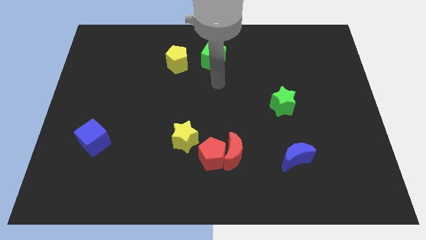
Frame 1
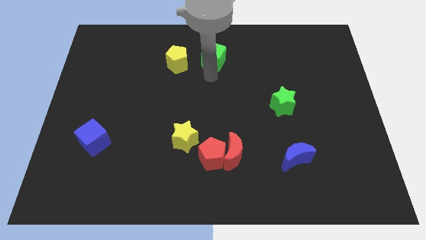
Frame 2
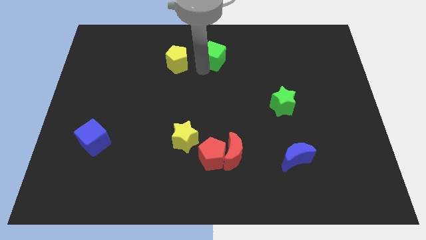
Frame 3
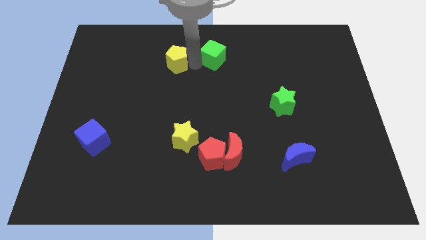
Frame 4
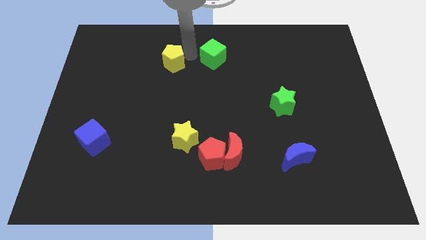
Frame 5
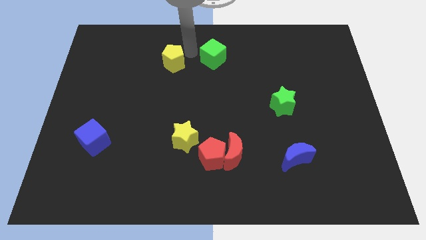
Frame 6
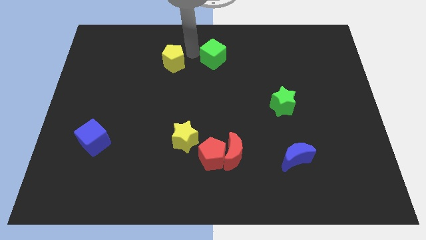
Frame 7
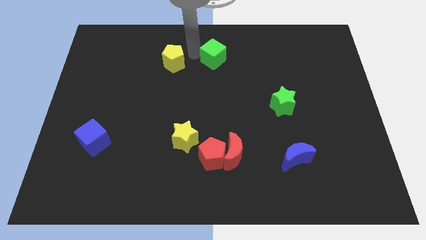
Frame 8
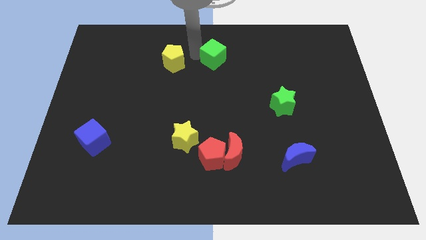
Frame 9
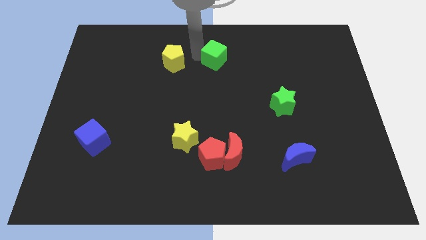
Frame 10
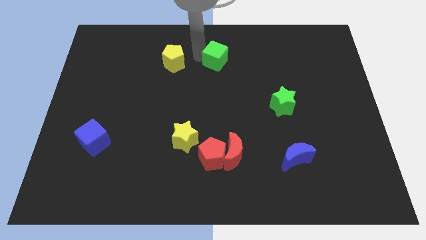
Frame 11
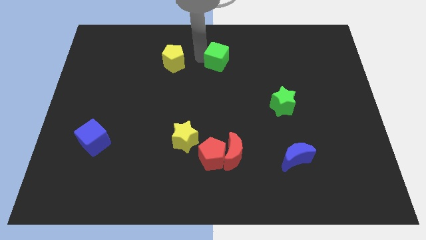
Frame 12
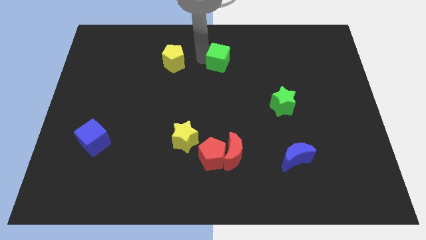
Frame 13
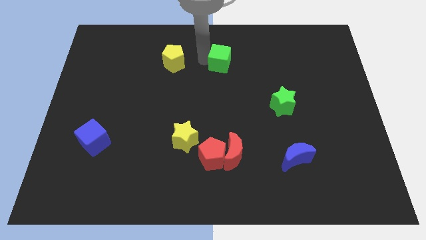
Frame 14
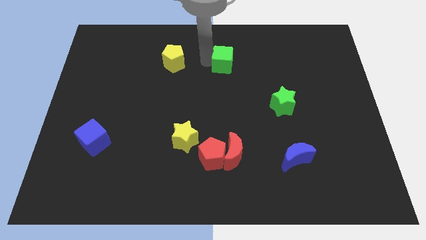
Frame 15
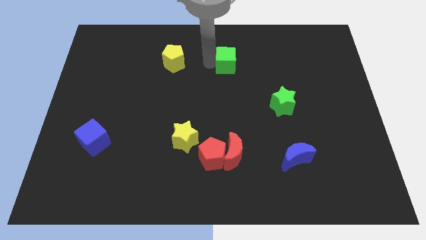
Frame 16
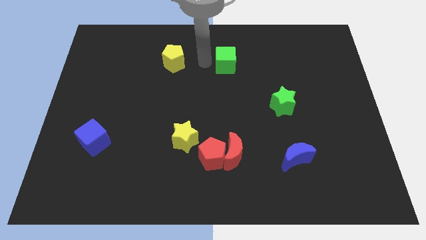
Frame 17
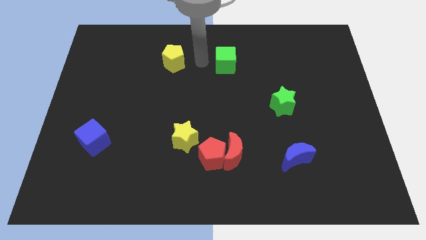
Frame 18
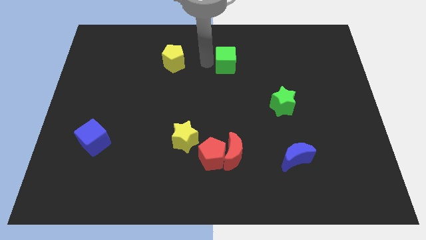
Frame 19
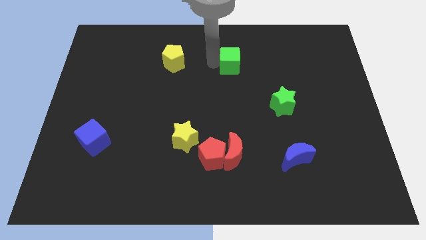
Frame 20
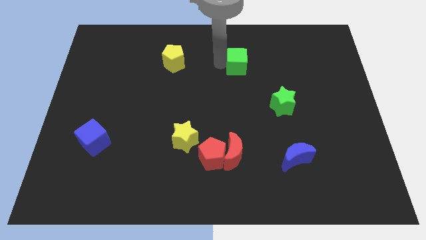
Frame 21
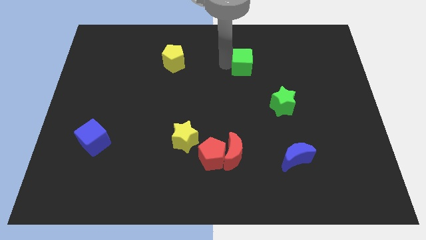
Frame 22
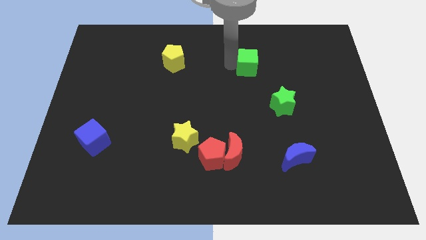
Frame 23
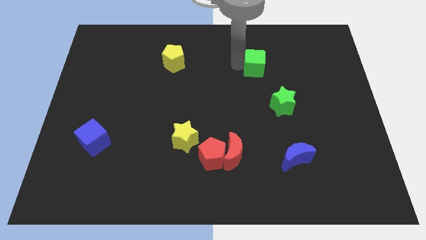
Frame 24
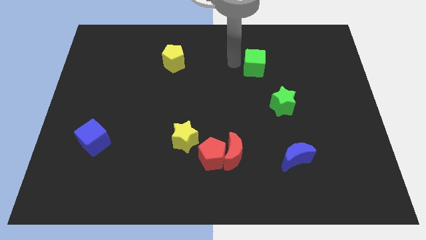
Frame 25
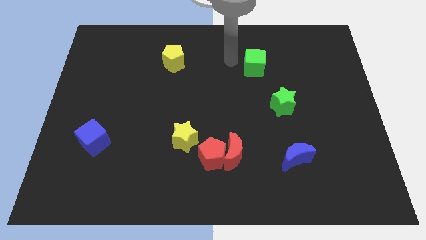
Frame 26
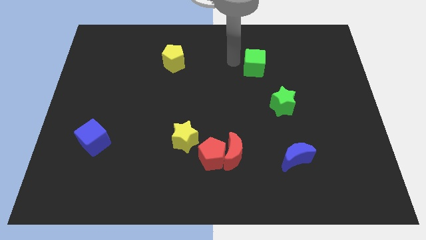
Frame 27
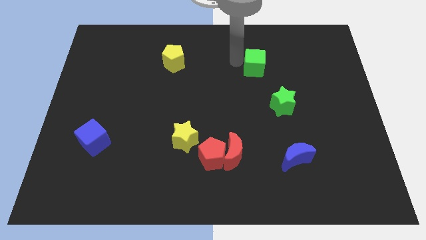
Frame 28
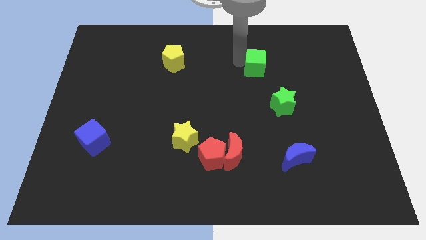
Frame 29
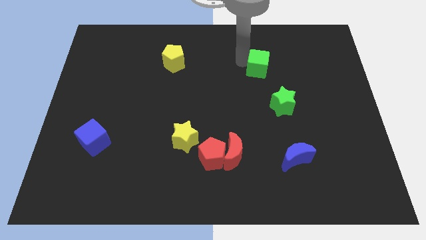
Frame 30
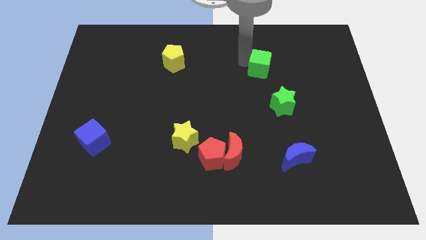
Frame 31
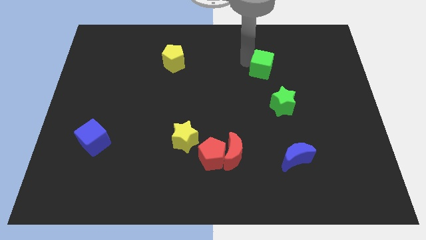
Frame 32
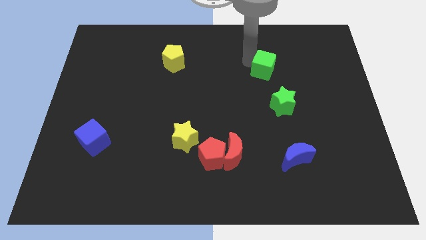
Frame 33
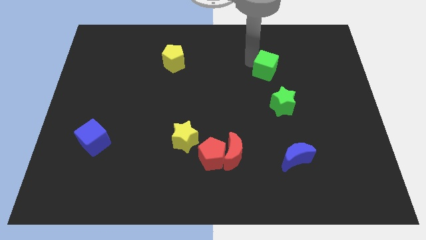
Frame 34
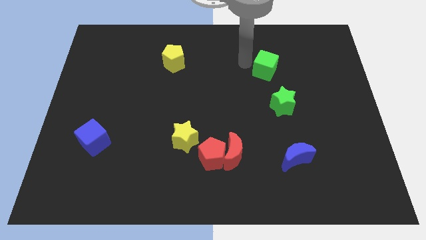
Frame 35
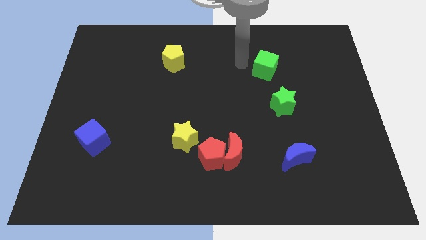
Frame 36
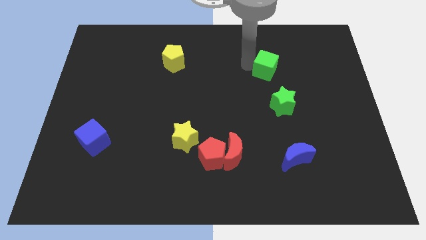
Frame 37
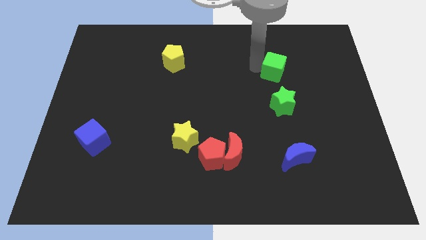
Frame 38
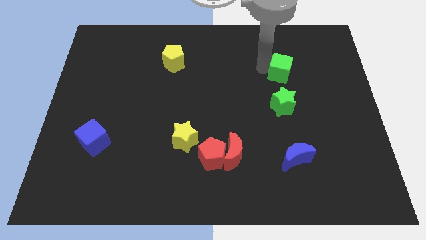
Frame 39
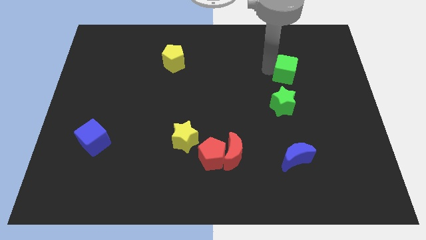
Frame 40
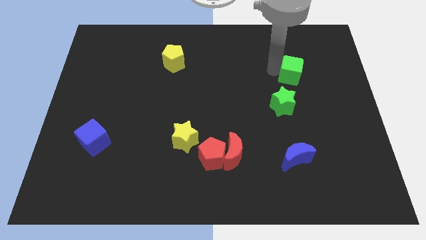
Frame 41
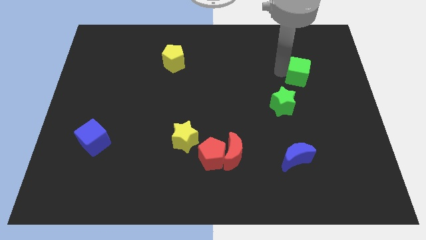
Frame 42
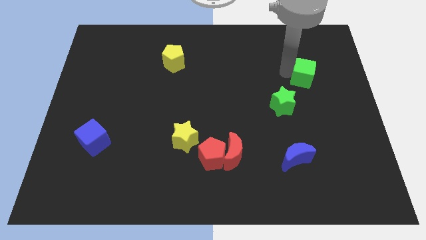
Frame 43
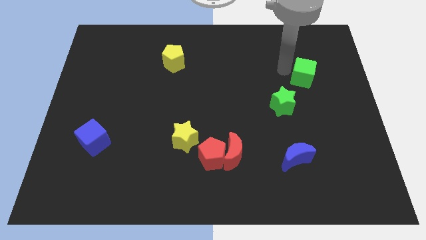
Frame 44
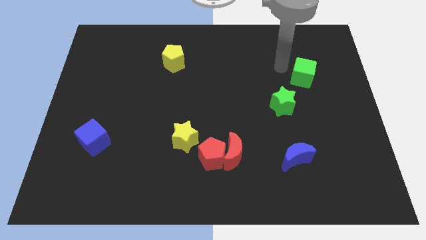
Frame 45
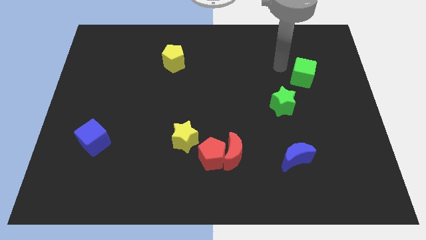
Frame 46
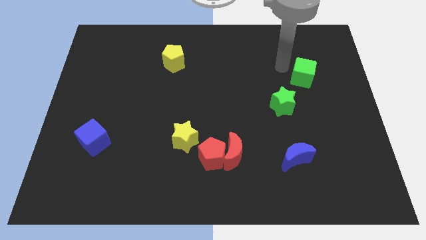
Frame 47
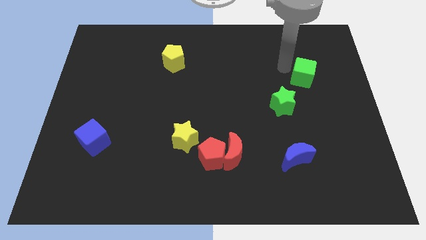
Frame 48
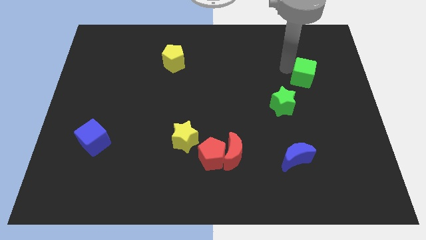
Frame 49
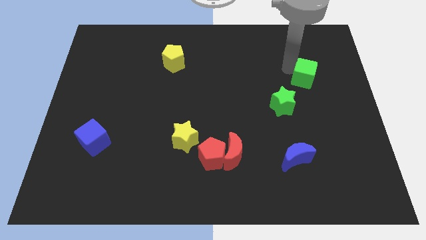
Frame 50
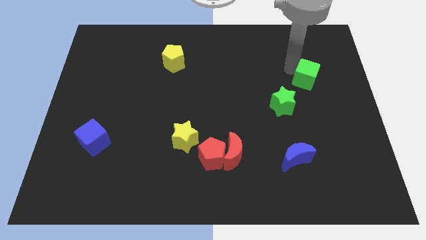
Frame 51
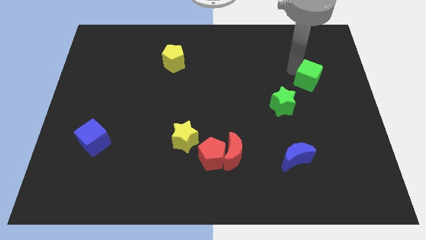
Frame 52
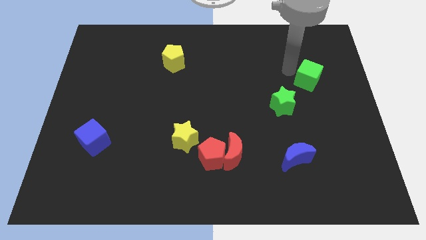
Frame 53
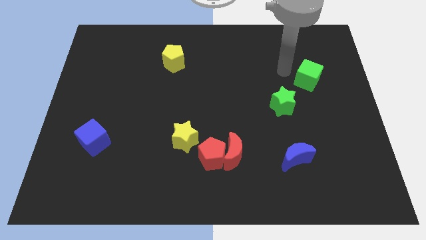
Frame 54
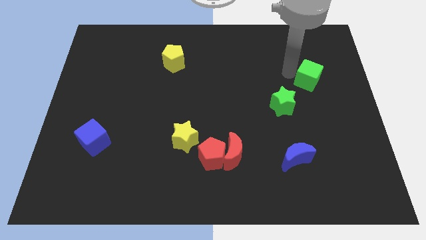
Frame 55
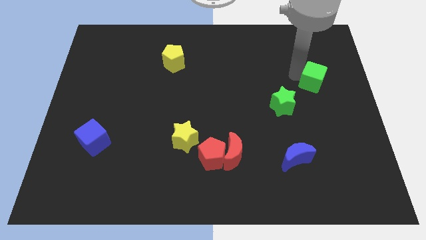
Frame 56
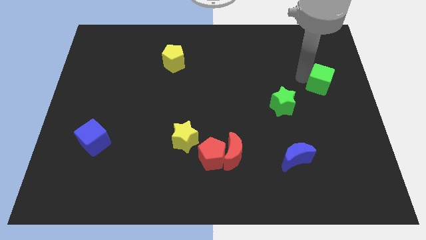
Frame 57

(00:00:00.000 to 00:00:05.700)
move the green cube to the center right
